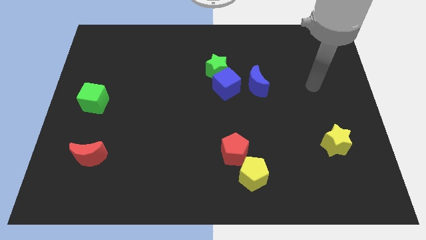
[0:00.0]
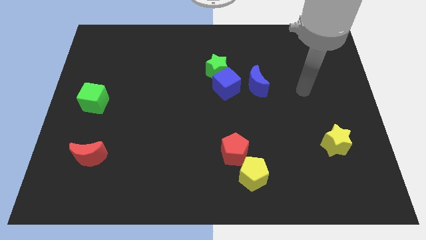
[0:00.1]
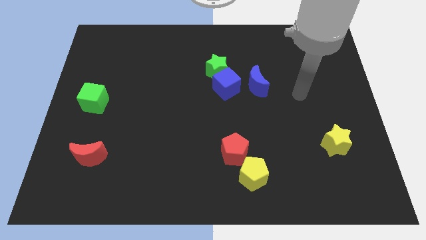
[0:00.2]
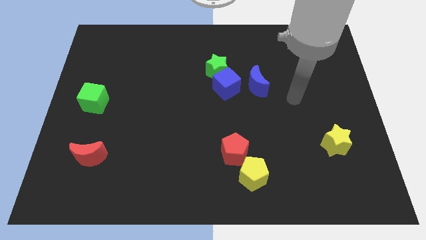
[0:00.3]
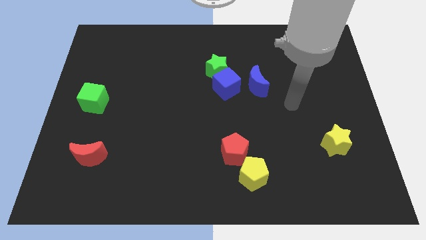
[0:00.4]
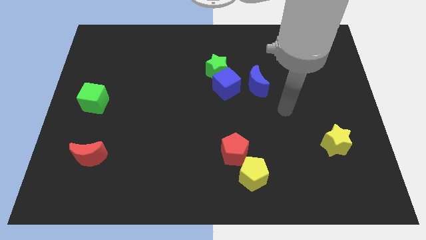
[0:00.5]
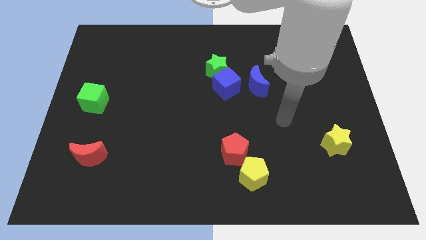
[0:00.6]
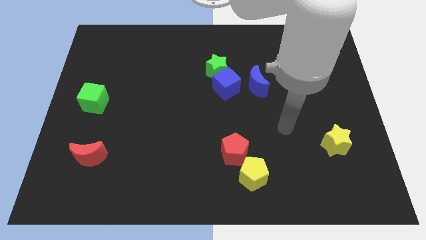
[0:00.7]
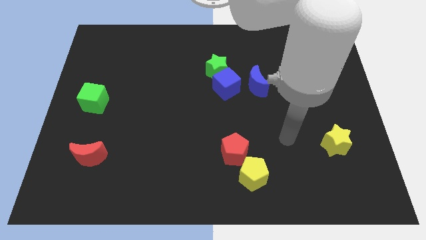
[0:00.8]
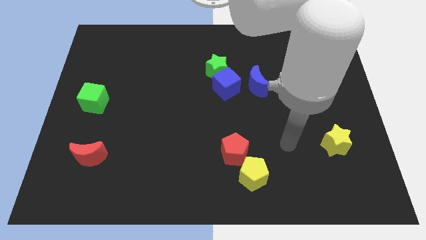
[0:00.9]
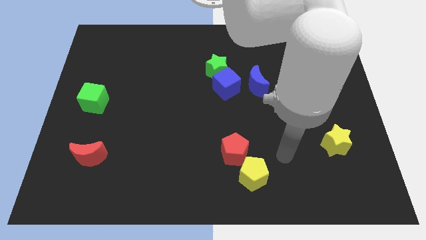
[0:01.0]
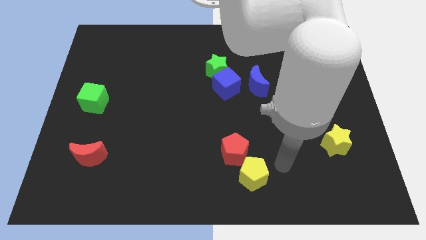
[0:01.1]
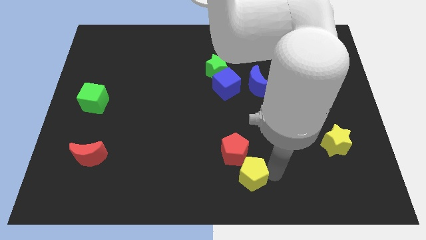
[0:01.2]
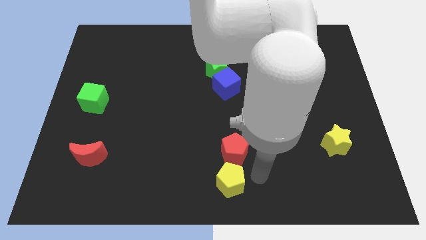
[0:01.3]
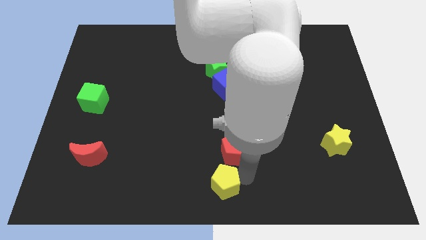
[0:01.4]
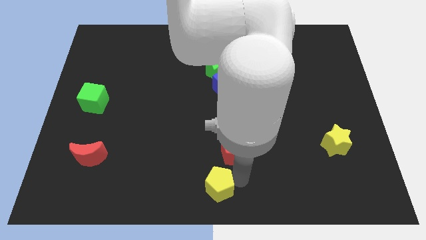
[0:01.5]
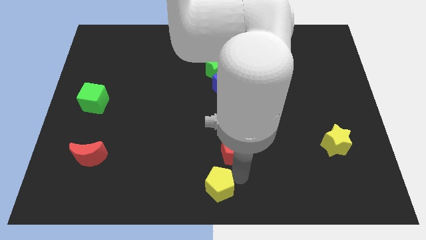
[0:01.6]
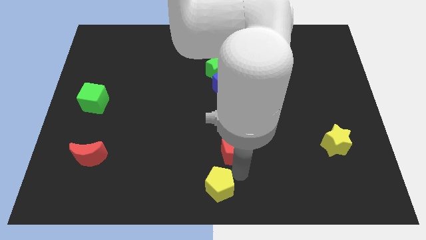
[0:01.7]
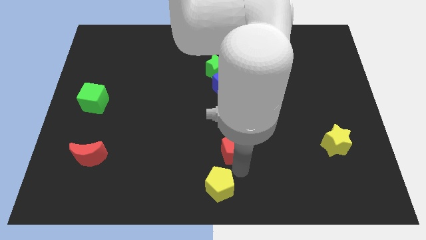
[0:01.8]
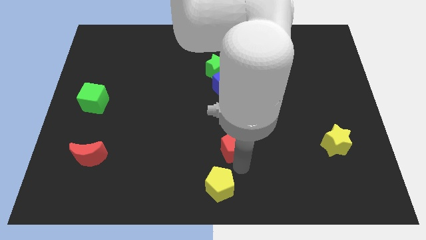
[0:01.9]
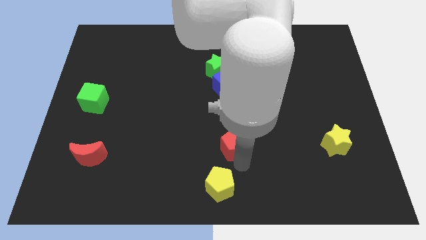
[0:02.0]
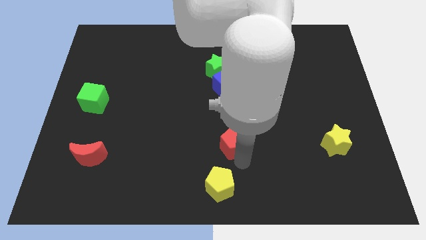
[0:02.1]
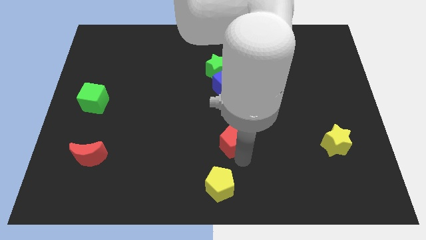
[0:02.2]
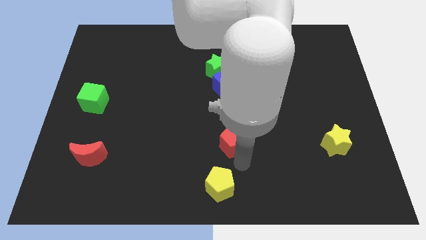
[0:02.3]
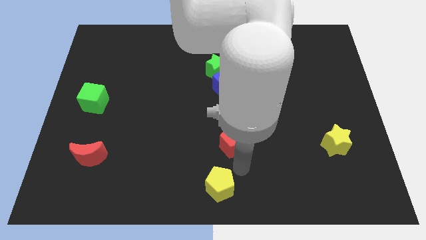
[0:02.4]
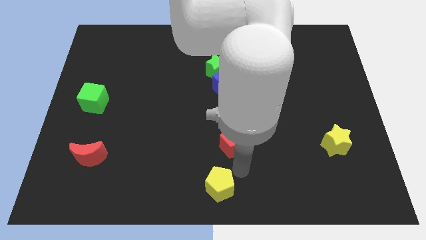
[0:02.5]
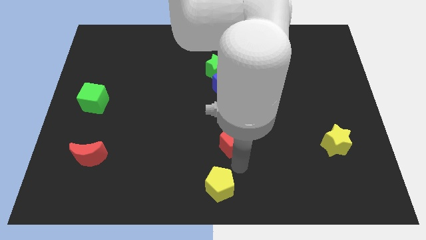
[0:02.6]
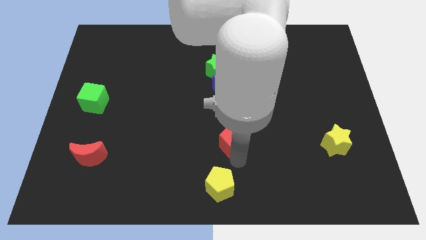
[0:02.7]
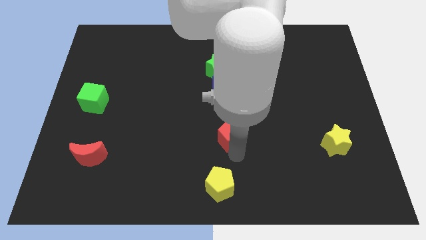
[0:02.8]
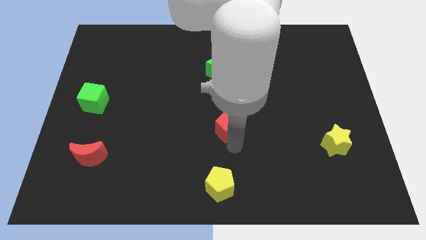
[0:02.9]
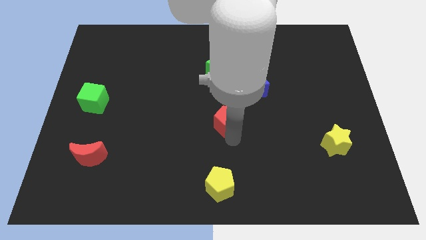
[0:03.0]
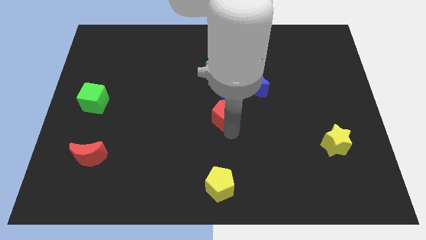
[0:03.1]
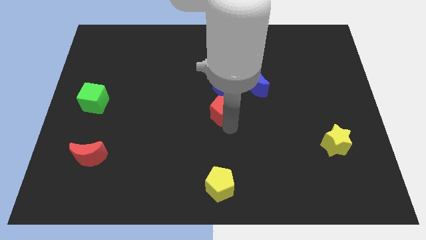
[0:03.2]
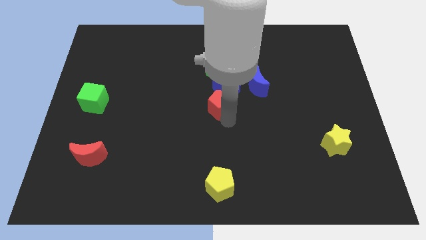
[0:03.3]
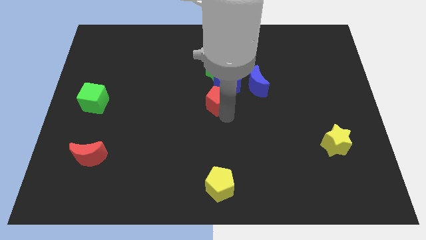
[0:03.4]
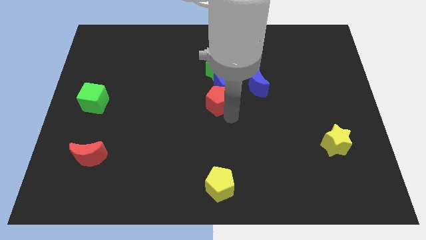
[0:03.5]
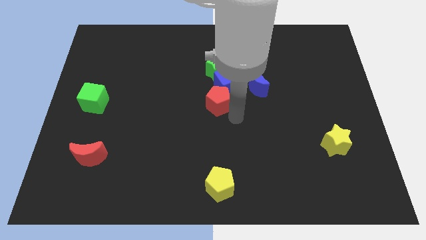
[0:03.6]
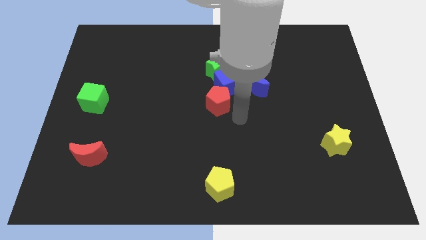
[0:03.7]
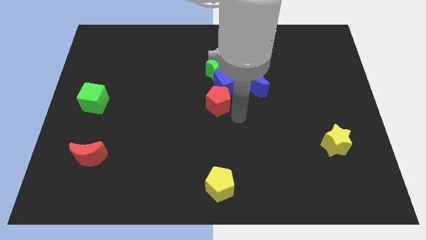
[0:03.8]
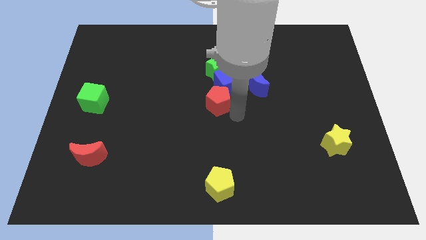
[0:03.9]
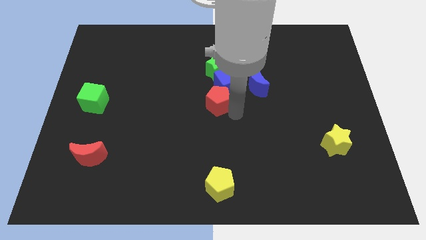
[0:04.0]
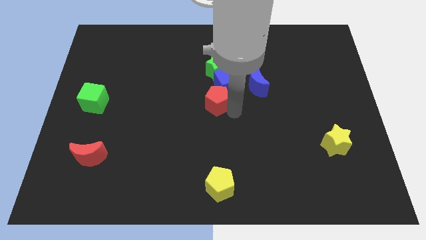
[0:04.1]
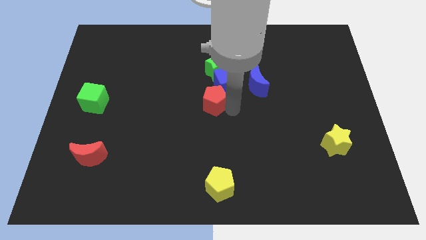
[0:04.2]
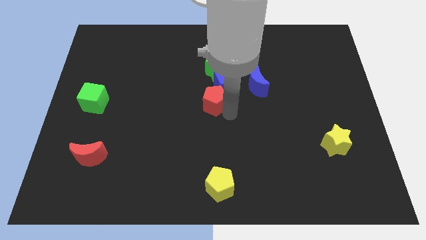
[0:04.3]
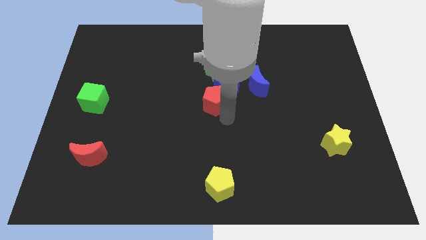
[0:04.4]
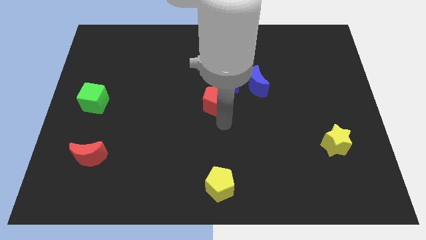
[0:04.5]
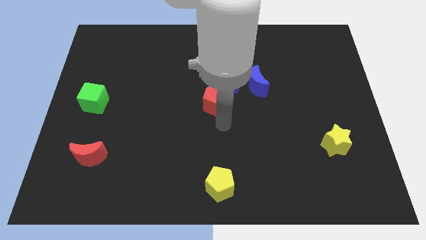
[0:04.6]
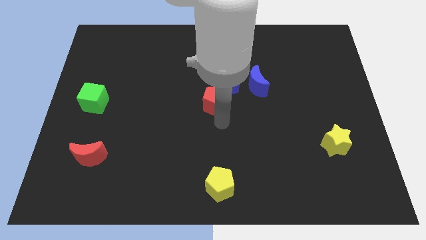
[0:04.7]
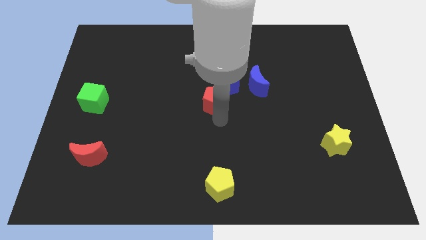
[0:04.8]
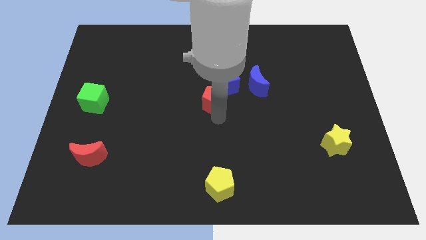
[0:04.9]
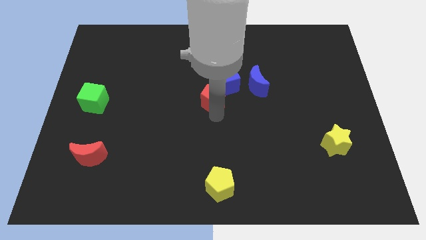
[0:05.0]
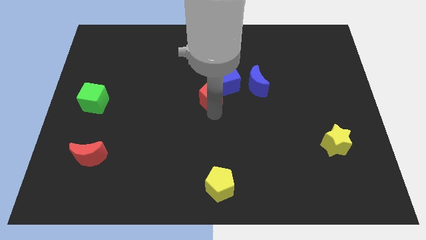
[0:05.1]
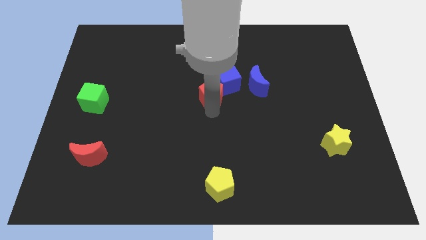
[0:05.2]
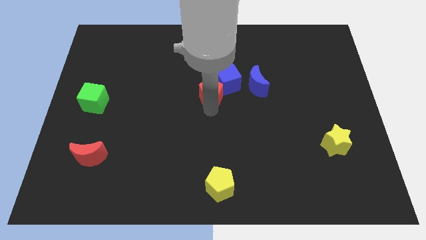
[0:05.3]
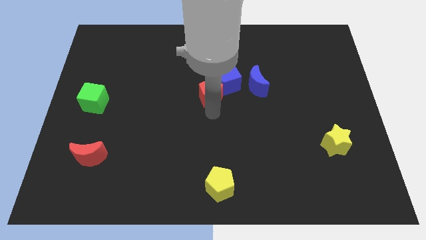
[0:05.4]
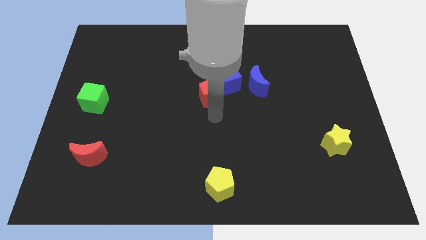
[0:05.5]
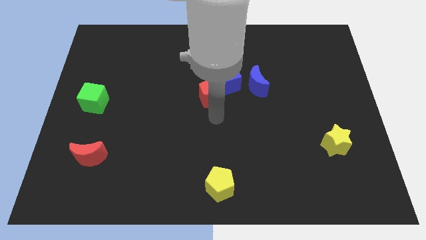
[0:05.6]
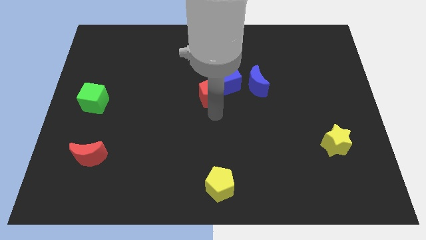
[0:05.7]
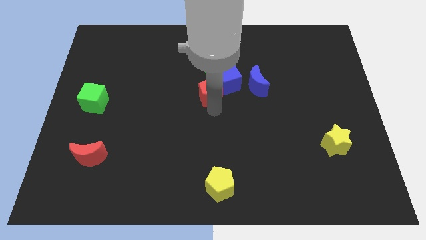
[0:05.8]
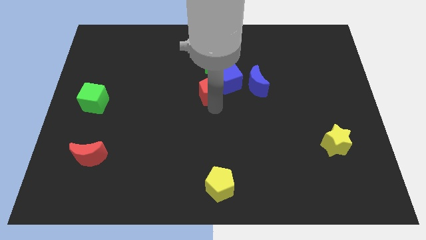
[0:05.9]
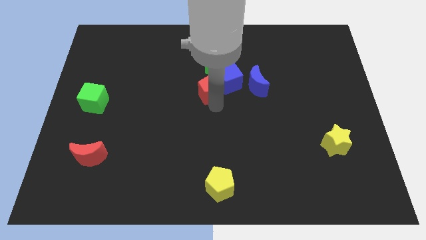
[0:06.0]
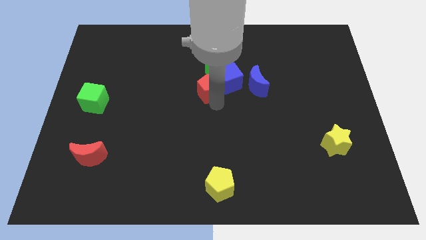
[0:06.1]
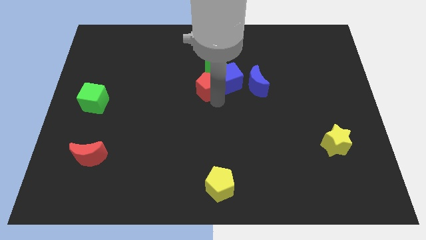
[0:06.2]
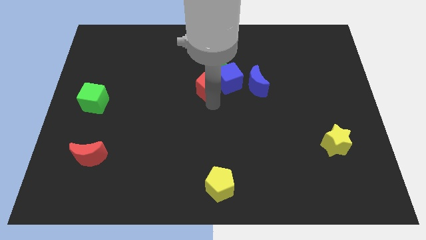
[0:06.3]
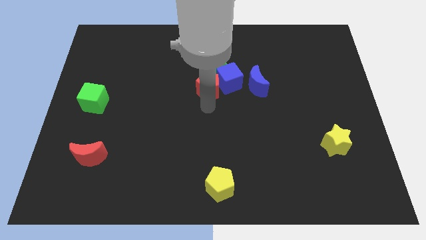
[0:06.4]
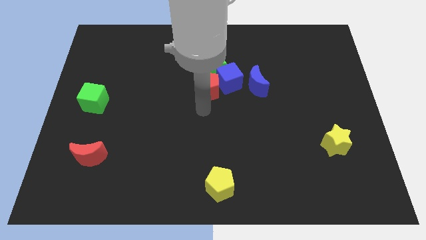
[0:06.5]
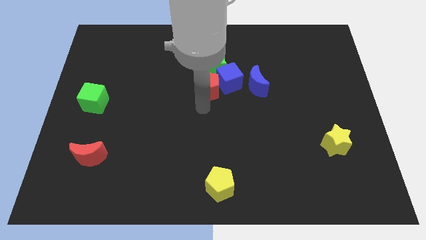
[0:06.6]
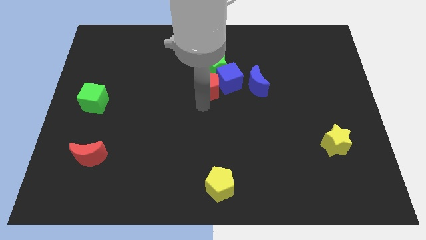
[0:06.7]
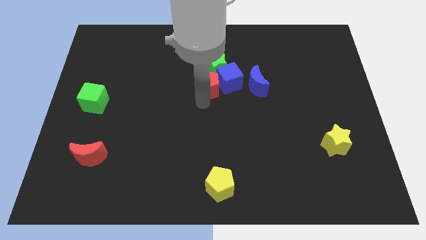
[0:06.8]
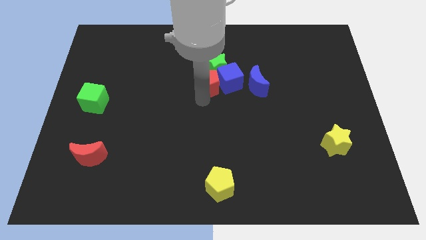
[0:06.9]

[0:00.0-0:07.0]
slide the red pentagon to the green star

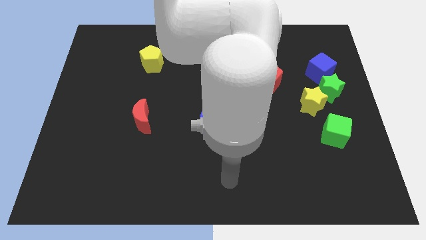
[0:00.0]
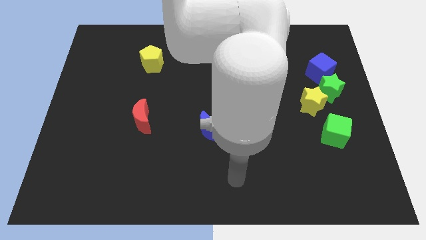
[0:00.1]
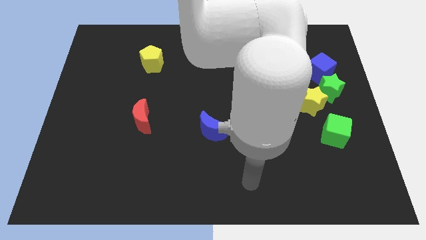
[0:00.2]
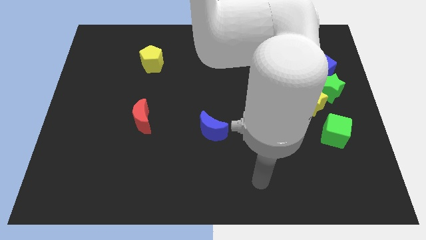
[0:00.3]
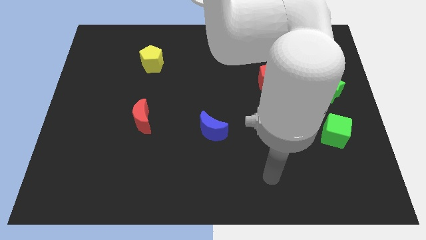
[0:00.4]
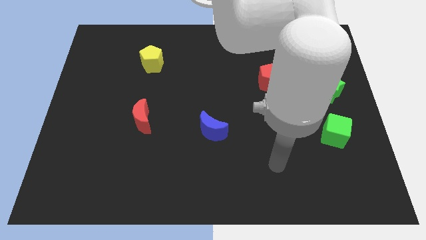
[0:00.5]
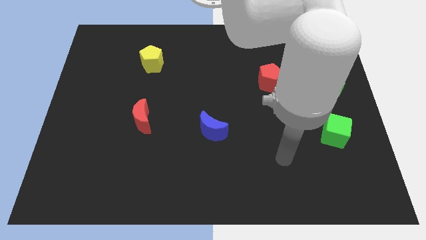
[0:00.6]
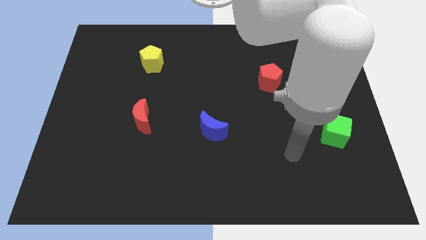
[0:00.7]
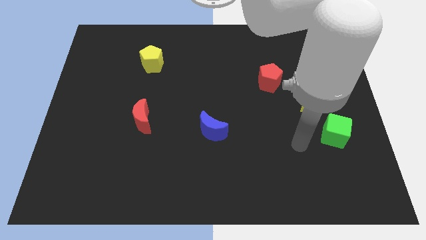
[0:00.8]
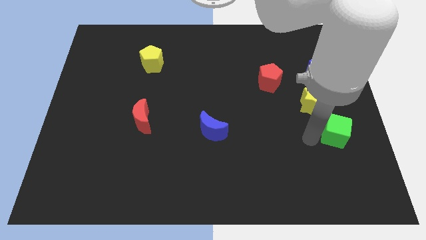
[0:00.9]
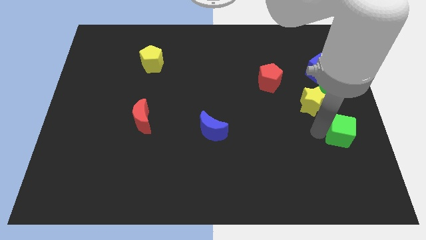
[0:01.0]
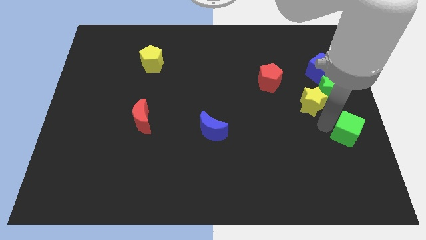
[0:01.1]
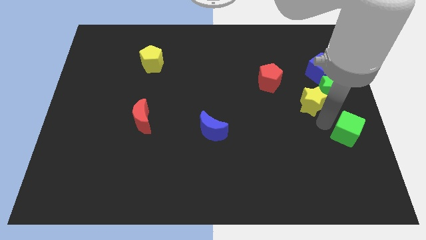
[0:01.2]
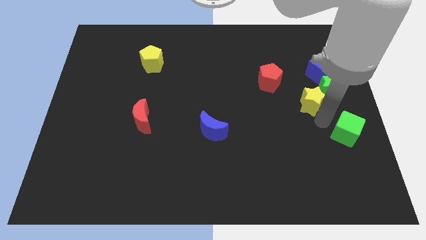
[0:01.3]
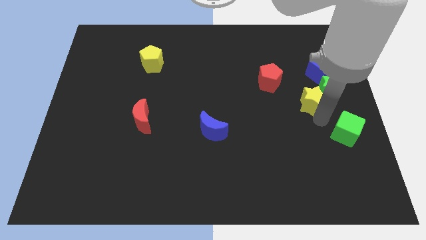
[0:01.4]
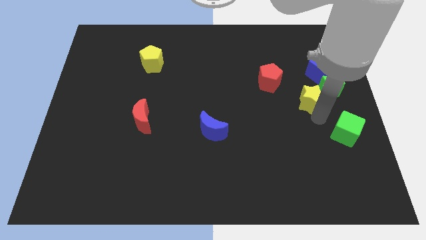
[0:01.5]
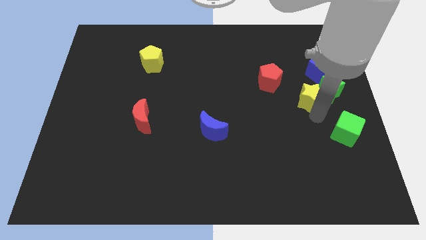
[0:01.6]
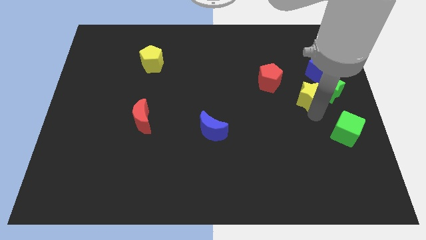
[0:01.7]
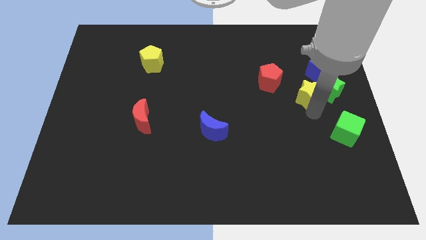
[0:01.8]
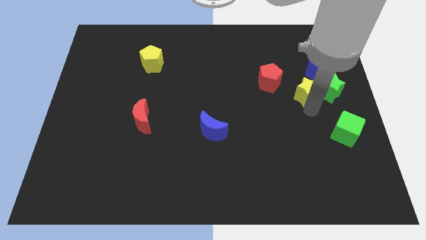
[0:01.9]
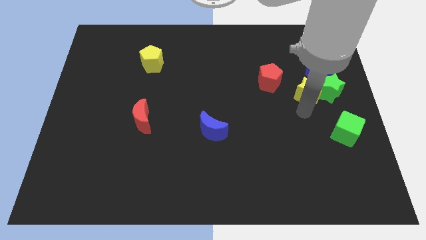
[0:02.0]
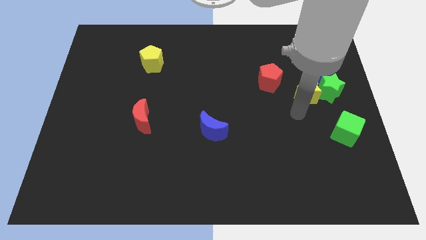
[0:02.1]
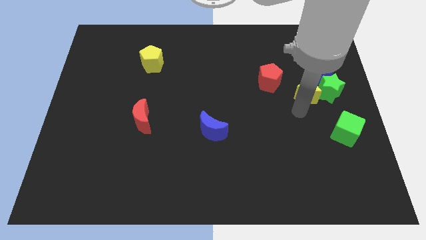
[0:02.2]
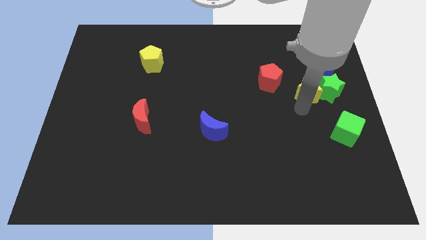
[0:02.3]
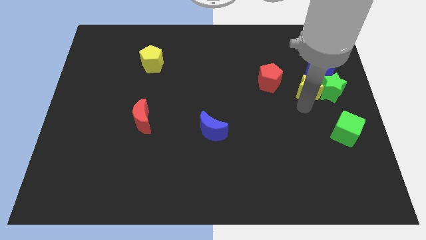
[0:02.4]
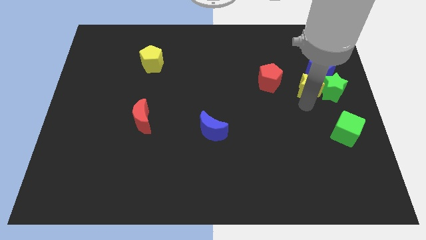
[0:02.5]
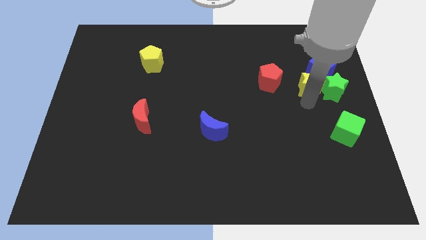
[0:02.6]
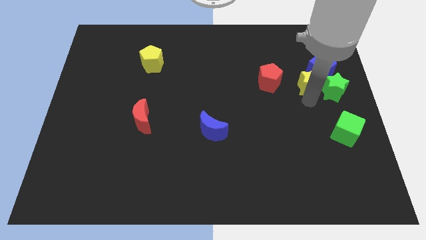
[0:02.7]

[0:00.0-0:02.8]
push the yellow star towards the blue cube
